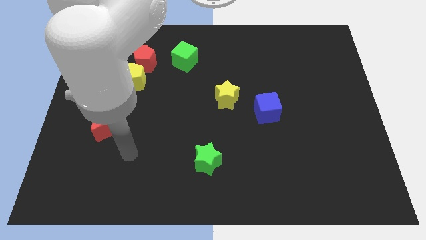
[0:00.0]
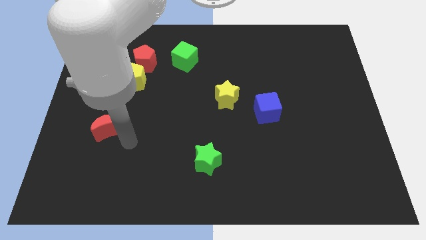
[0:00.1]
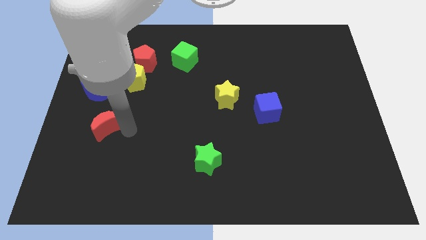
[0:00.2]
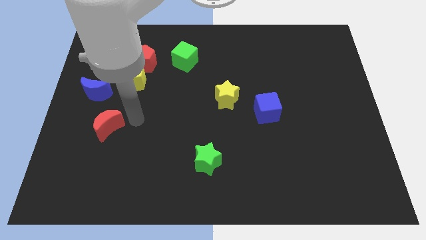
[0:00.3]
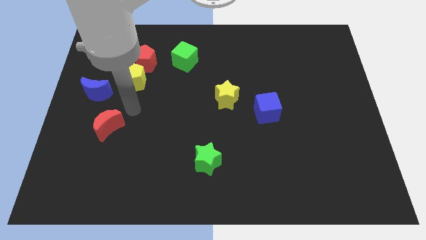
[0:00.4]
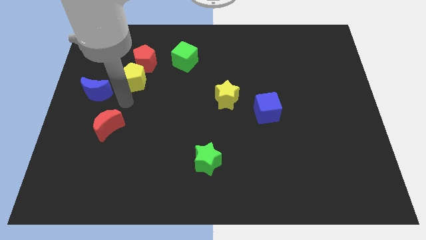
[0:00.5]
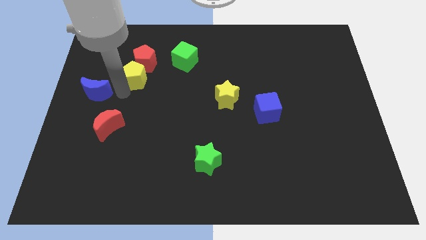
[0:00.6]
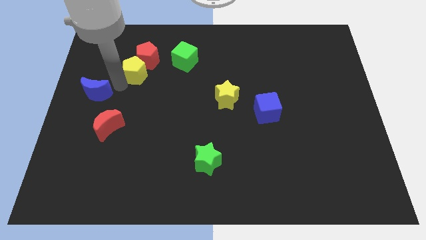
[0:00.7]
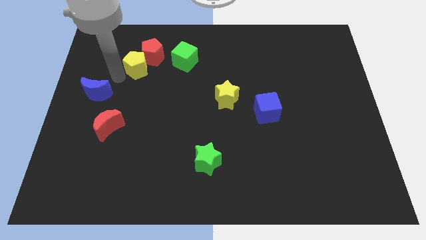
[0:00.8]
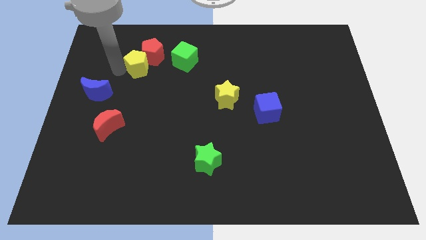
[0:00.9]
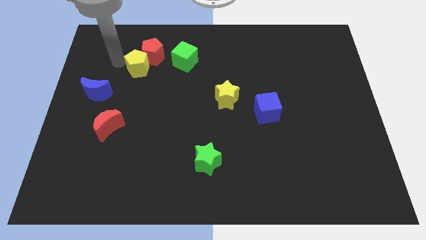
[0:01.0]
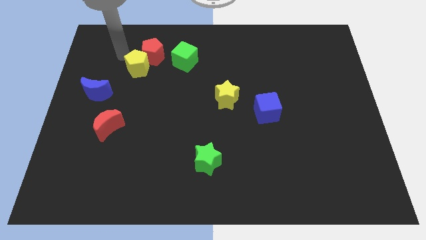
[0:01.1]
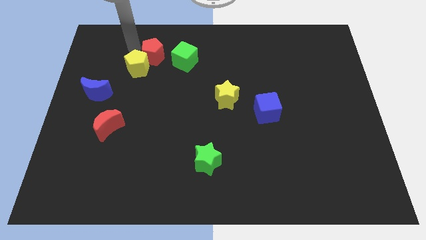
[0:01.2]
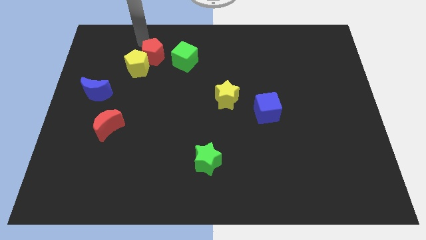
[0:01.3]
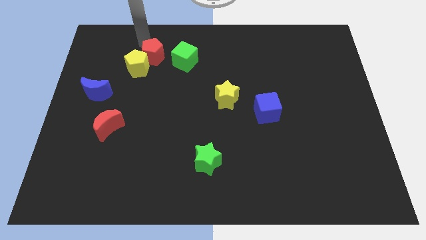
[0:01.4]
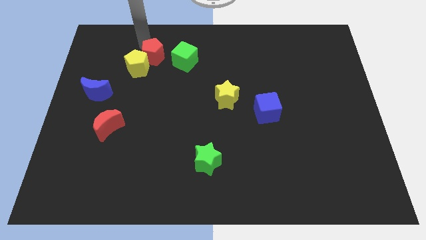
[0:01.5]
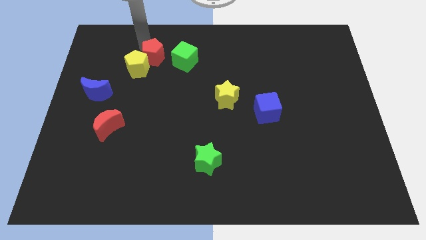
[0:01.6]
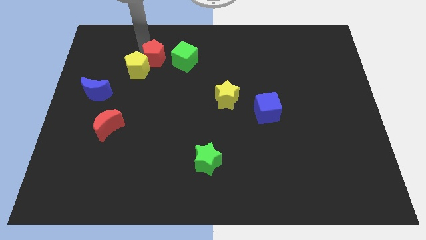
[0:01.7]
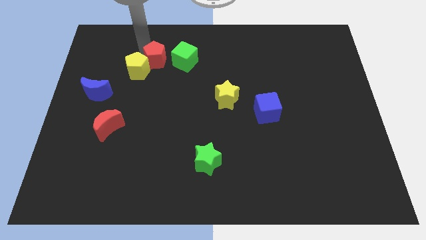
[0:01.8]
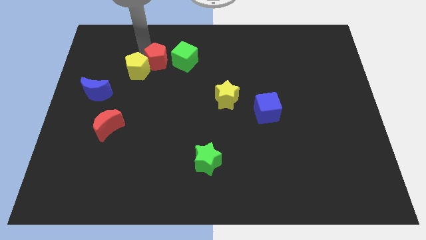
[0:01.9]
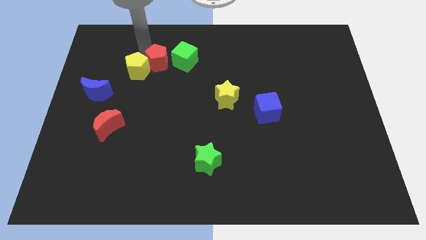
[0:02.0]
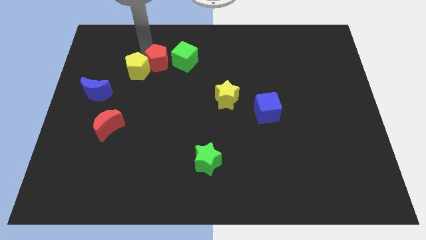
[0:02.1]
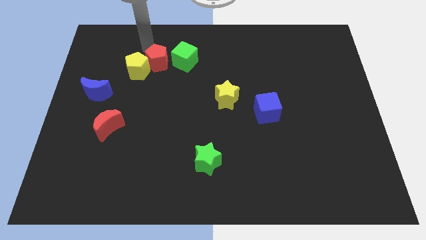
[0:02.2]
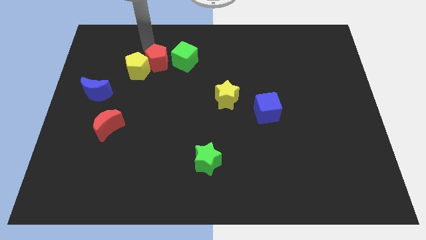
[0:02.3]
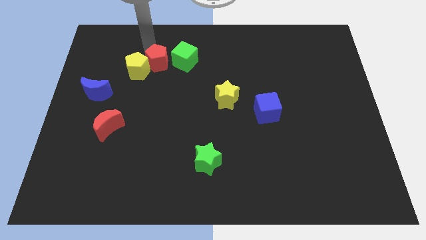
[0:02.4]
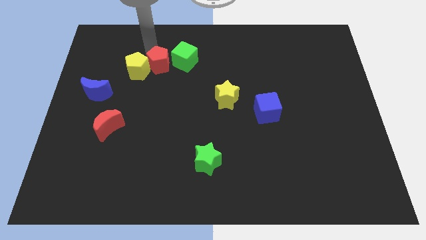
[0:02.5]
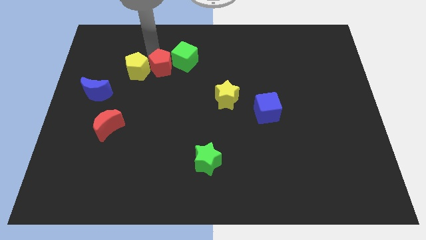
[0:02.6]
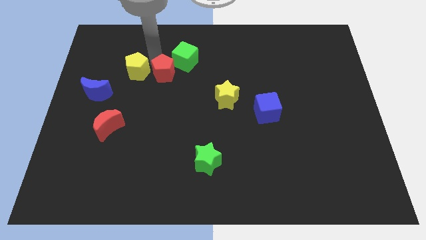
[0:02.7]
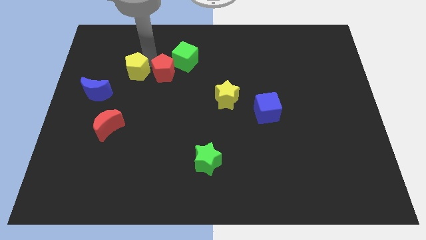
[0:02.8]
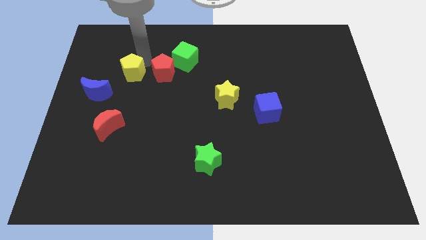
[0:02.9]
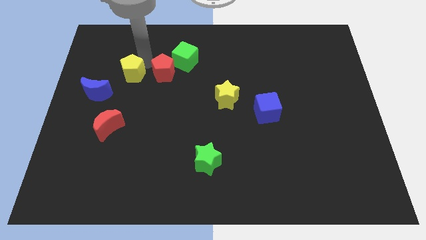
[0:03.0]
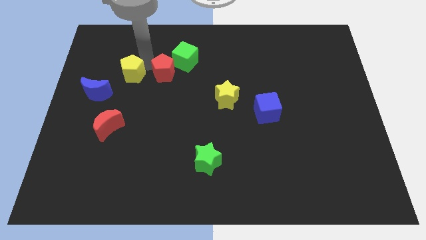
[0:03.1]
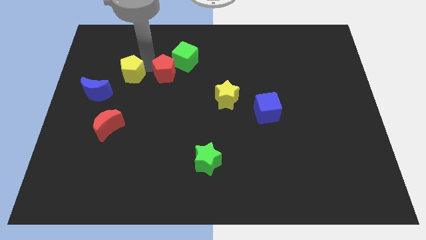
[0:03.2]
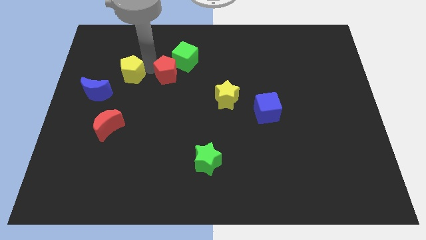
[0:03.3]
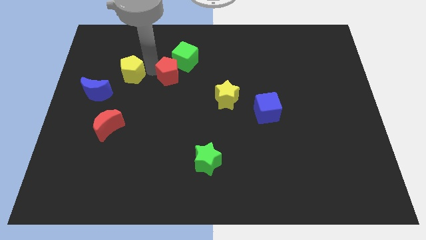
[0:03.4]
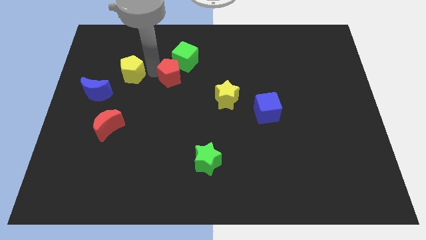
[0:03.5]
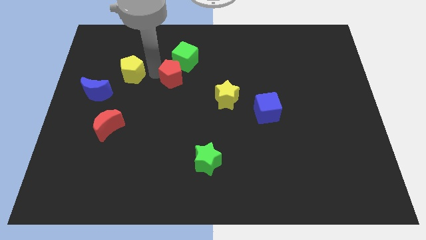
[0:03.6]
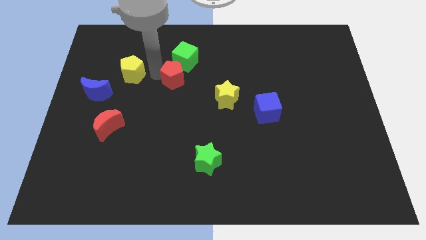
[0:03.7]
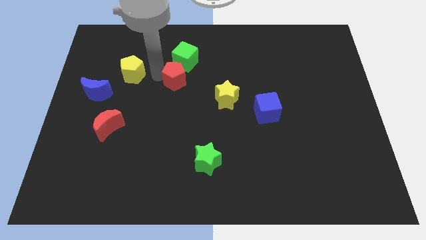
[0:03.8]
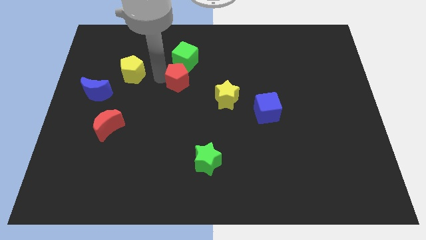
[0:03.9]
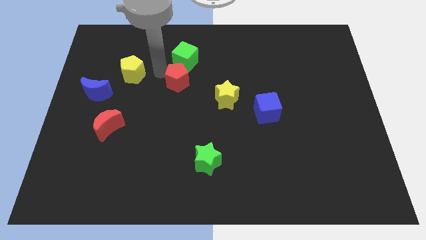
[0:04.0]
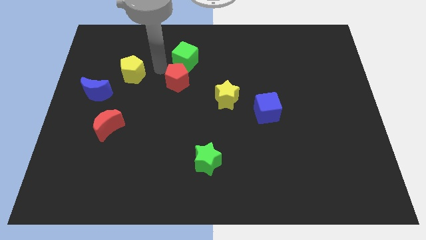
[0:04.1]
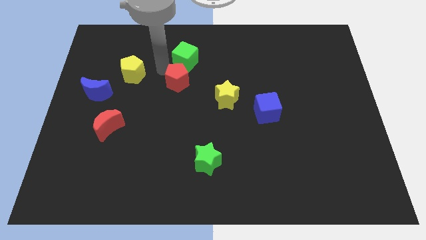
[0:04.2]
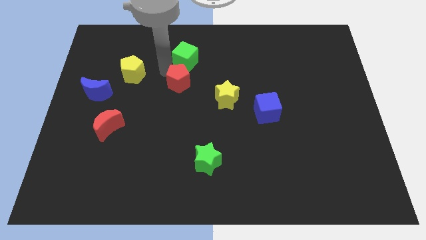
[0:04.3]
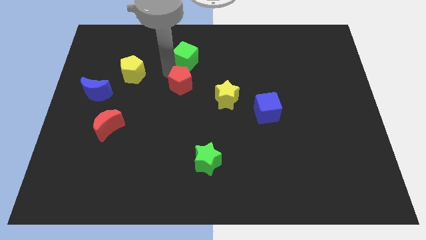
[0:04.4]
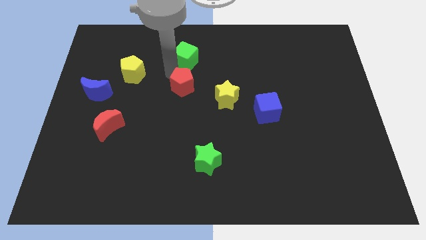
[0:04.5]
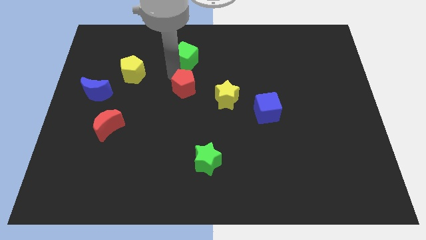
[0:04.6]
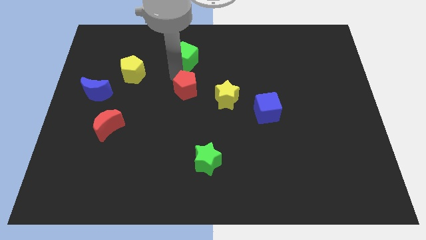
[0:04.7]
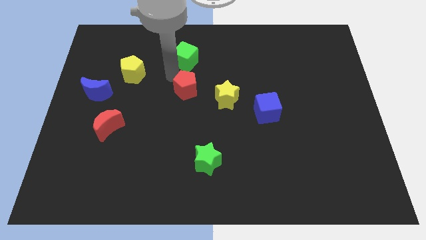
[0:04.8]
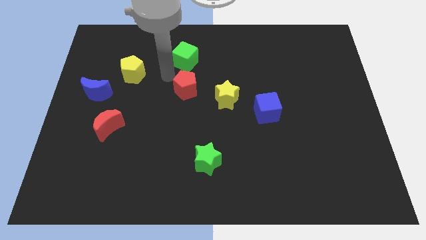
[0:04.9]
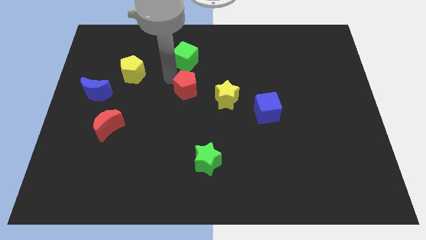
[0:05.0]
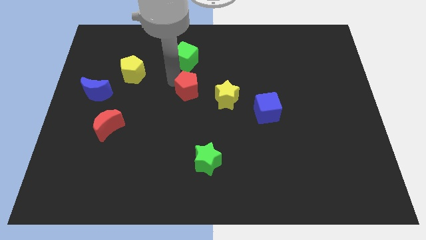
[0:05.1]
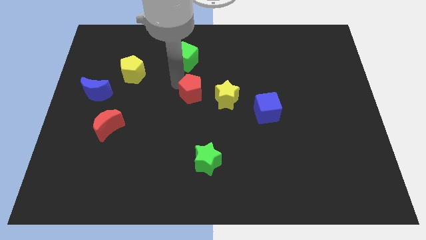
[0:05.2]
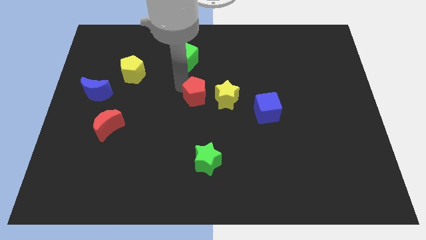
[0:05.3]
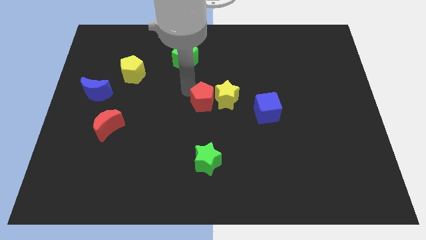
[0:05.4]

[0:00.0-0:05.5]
push the red pentagon diagonally down and right

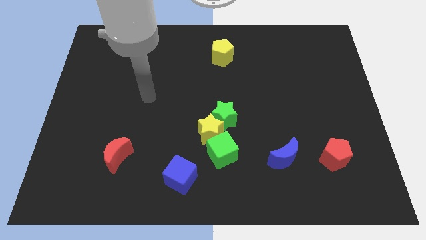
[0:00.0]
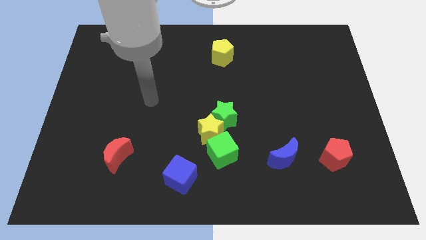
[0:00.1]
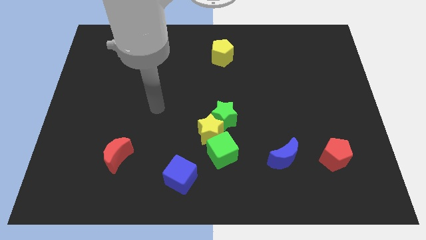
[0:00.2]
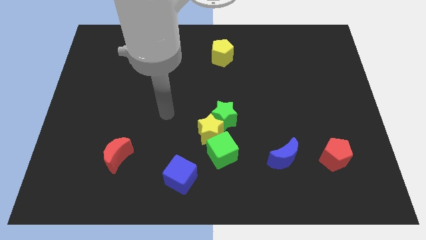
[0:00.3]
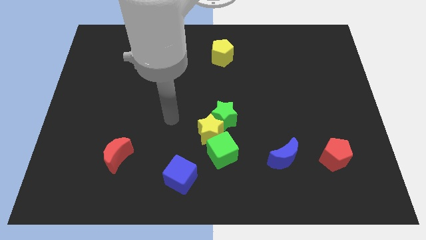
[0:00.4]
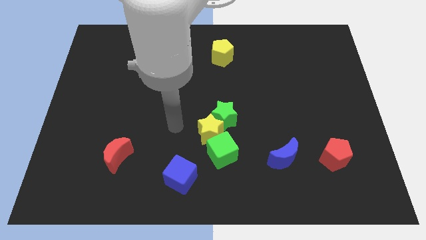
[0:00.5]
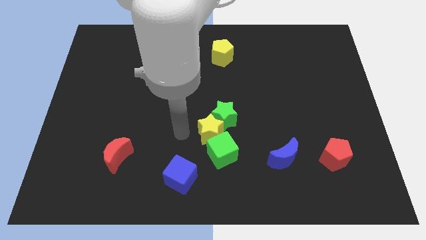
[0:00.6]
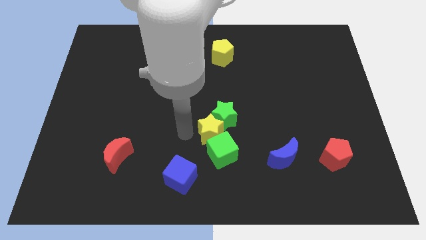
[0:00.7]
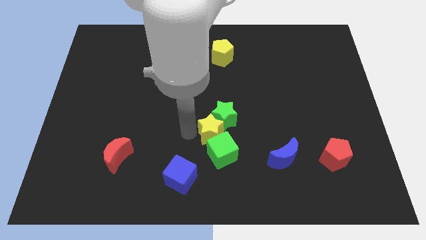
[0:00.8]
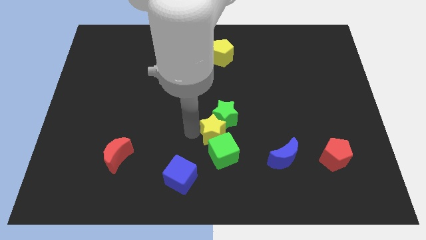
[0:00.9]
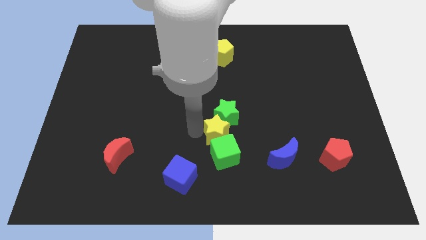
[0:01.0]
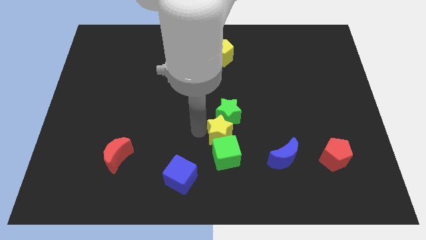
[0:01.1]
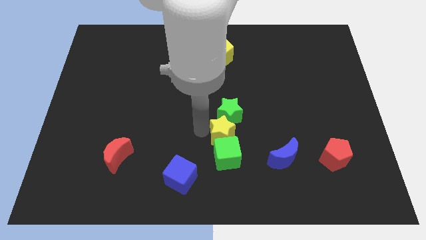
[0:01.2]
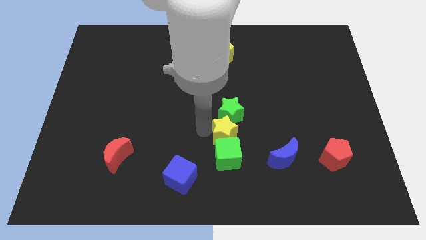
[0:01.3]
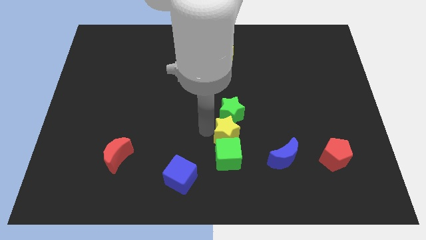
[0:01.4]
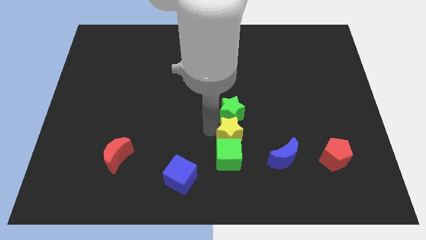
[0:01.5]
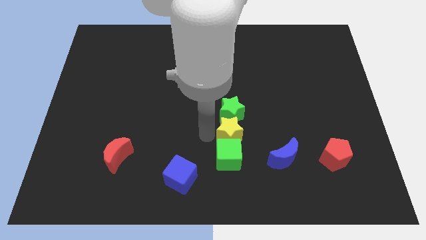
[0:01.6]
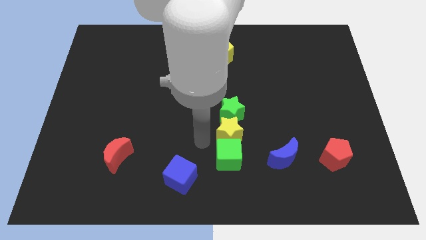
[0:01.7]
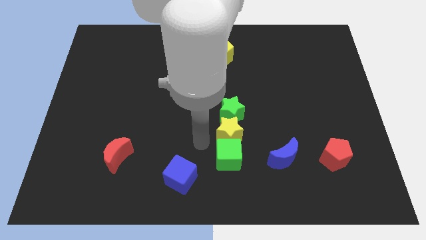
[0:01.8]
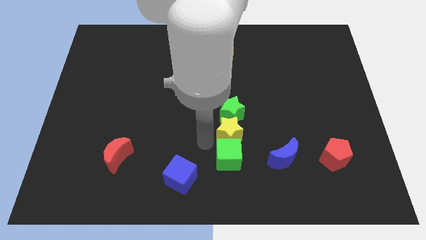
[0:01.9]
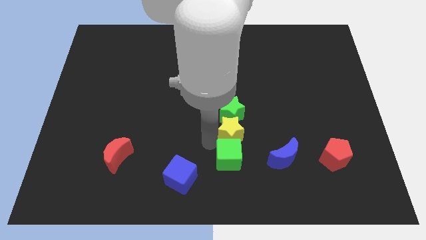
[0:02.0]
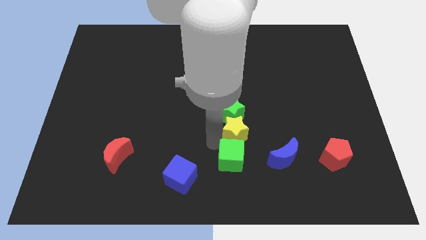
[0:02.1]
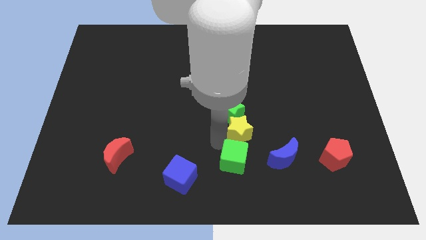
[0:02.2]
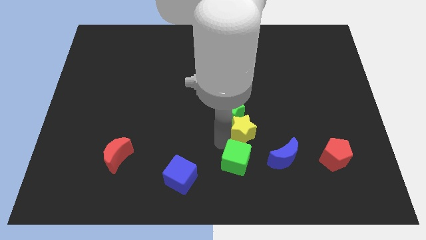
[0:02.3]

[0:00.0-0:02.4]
slide the yellow star somewhat to the right
